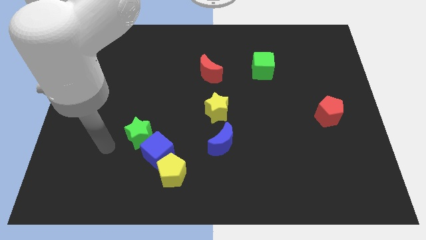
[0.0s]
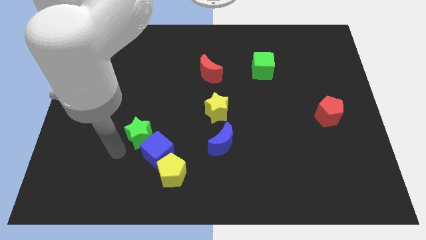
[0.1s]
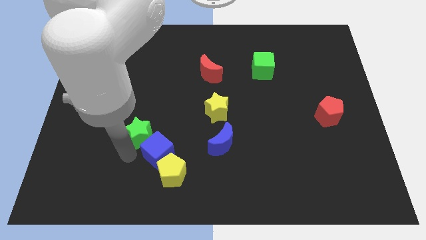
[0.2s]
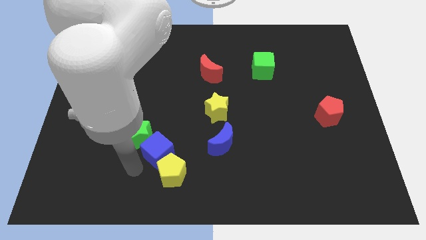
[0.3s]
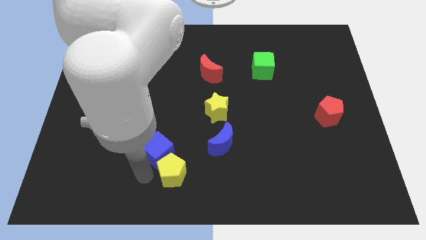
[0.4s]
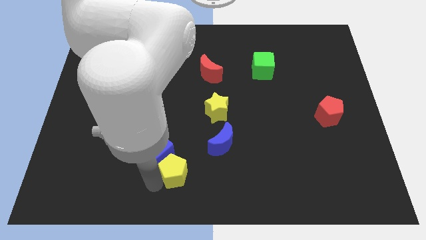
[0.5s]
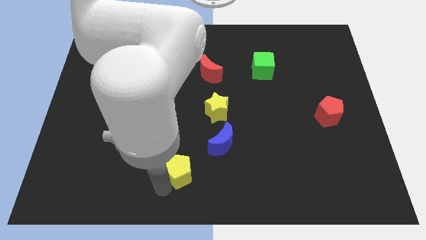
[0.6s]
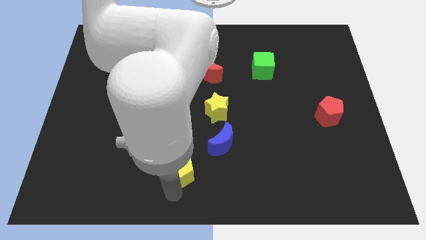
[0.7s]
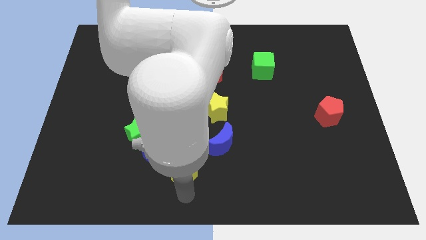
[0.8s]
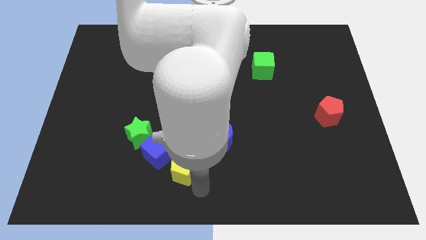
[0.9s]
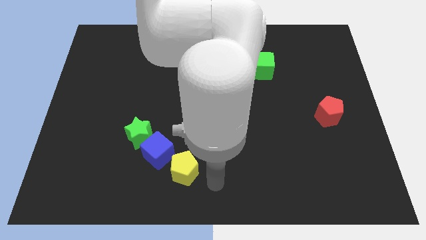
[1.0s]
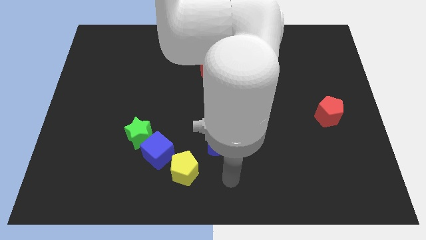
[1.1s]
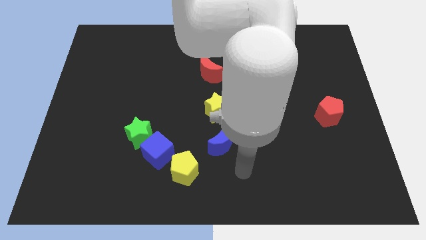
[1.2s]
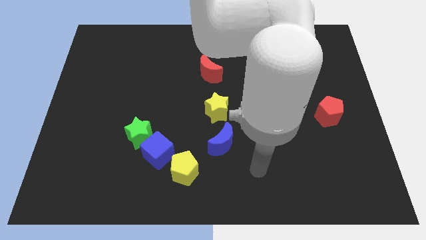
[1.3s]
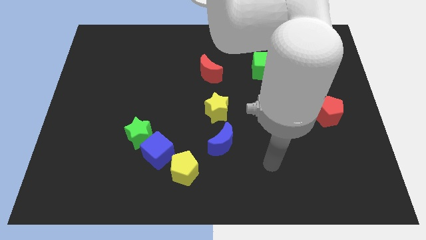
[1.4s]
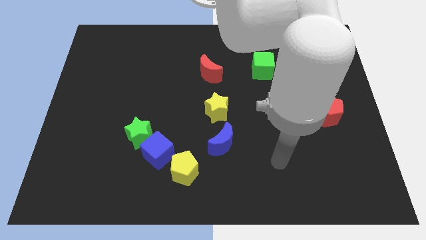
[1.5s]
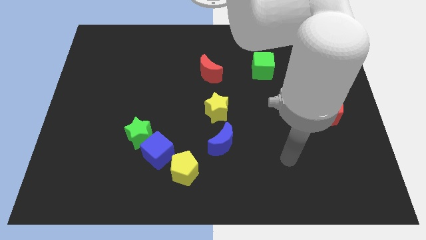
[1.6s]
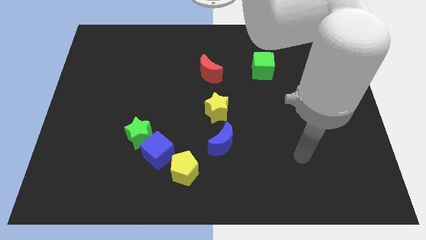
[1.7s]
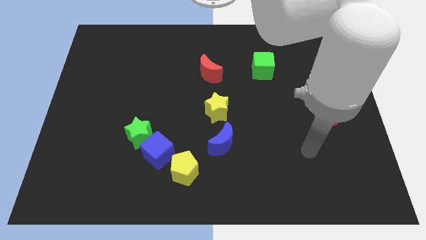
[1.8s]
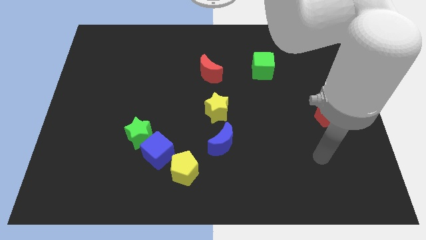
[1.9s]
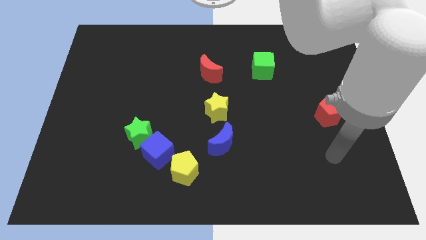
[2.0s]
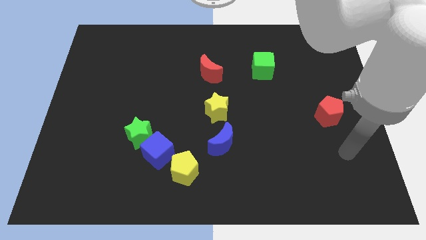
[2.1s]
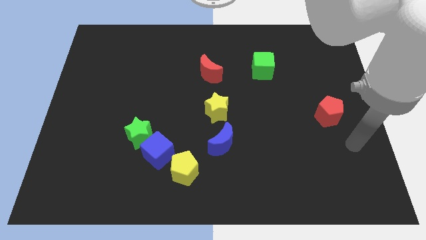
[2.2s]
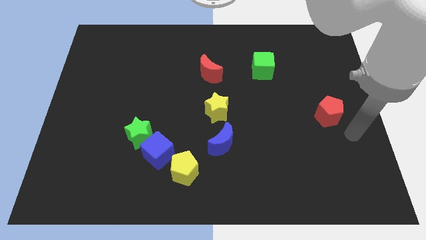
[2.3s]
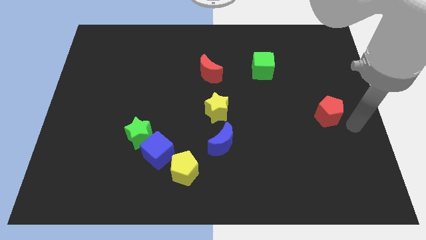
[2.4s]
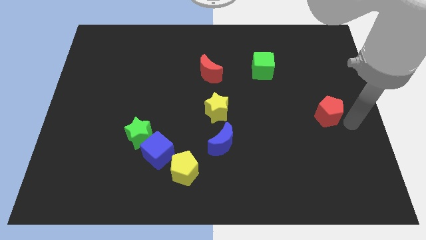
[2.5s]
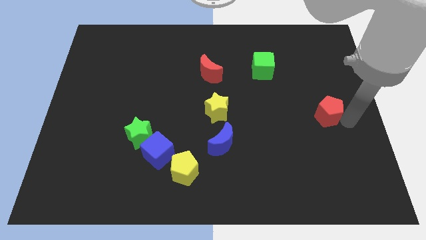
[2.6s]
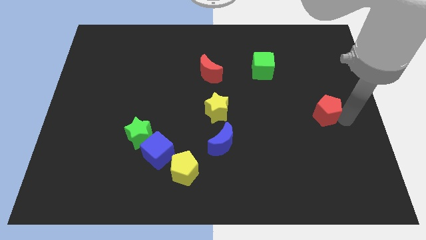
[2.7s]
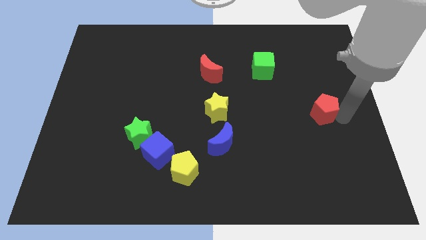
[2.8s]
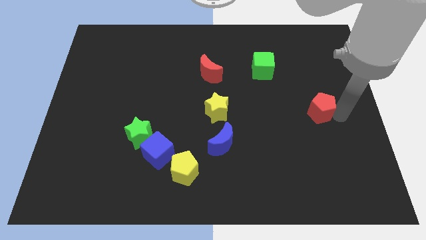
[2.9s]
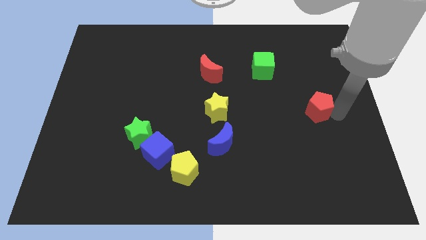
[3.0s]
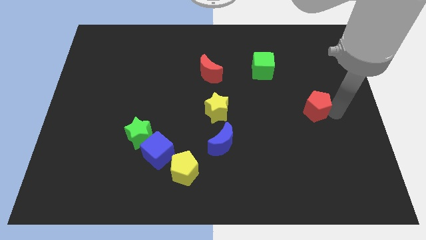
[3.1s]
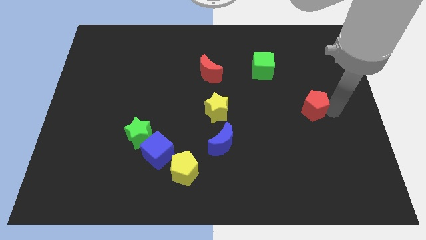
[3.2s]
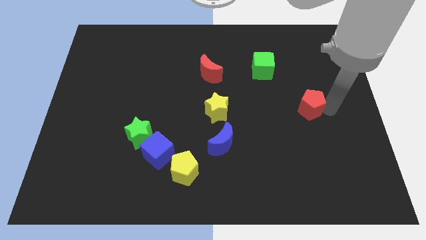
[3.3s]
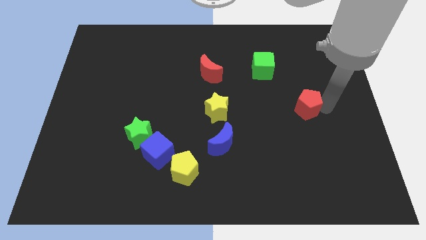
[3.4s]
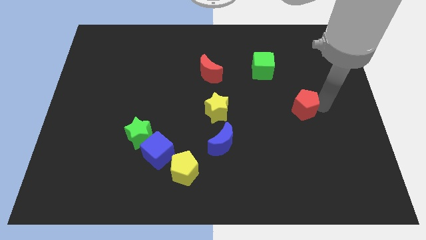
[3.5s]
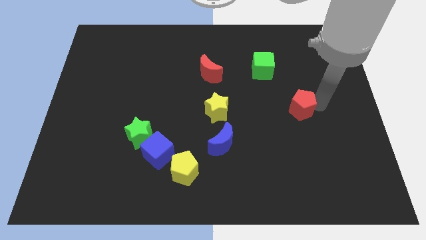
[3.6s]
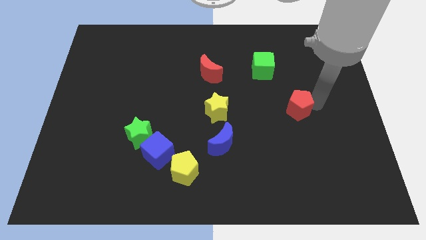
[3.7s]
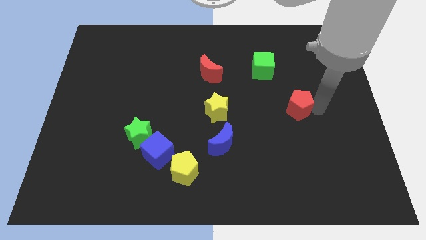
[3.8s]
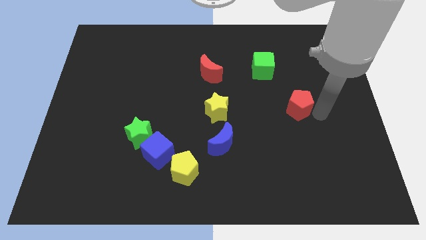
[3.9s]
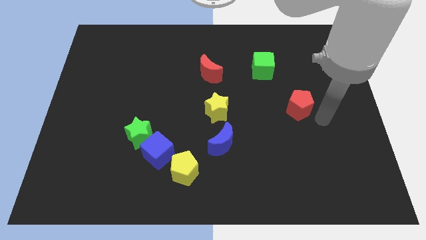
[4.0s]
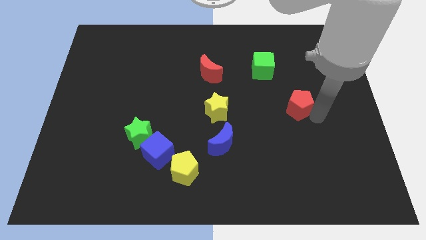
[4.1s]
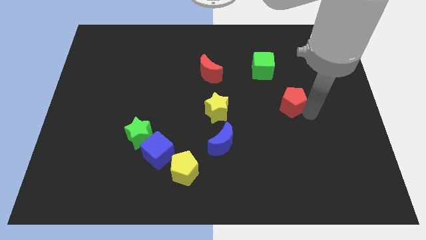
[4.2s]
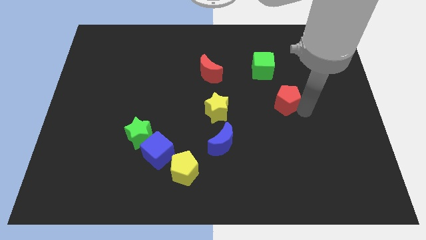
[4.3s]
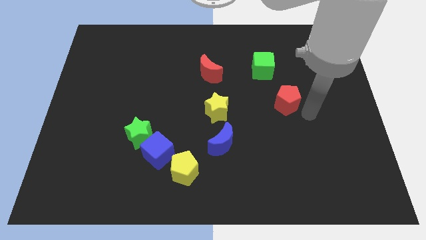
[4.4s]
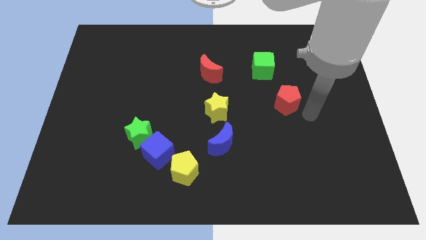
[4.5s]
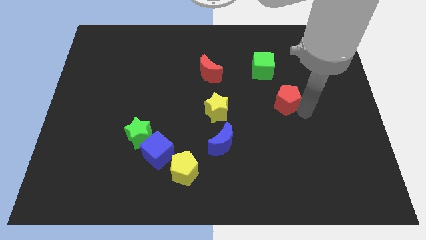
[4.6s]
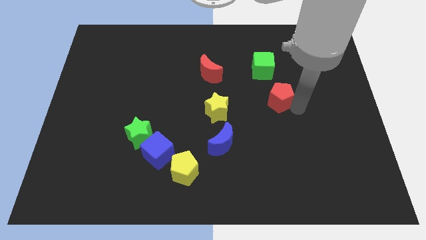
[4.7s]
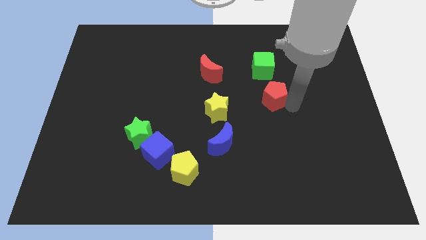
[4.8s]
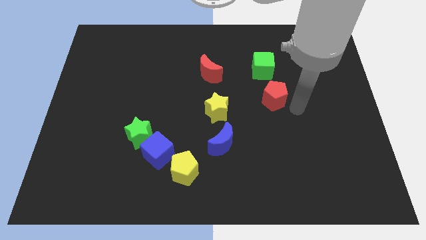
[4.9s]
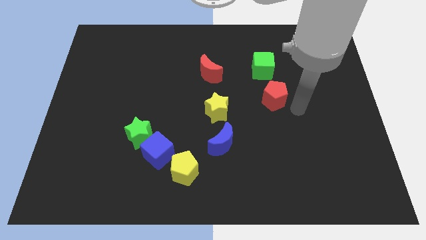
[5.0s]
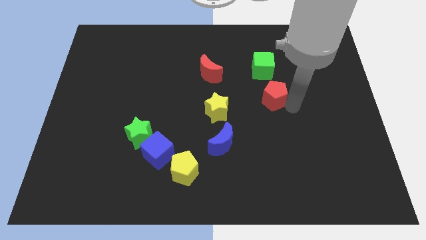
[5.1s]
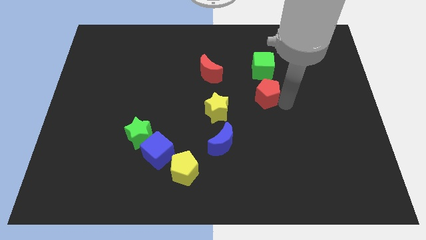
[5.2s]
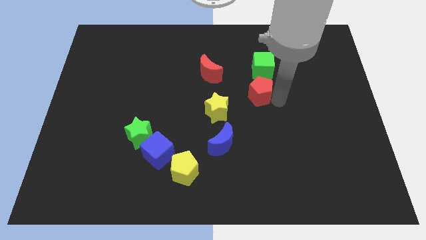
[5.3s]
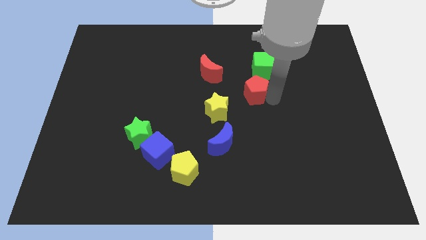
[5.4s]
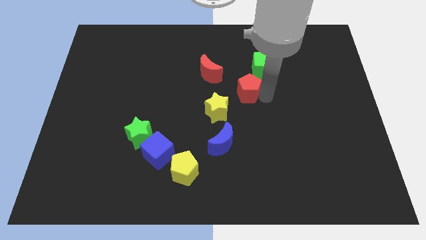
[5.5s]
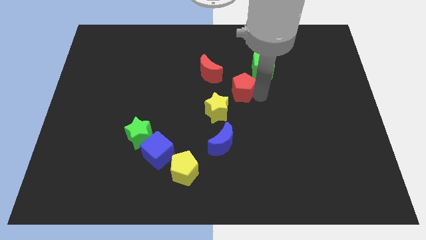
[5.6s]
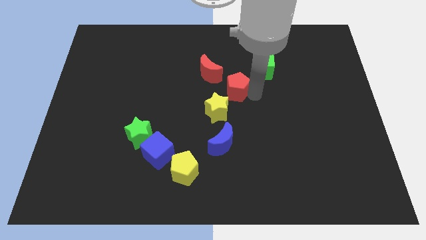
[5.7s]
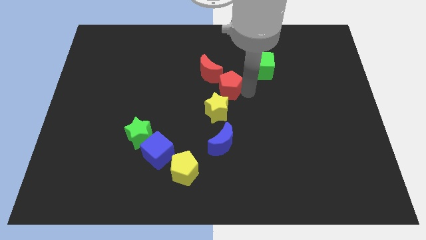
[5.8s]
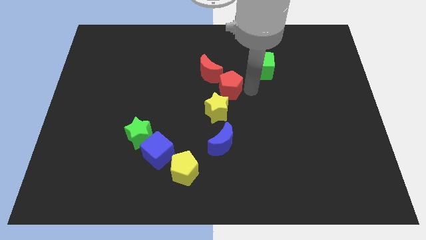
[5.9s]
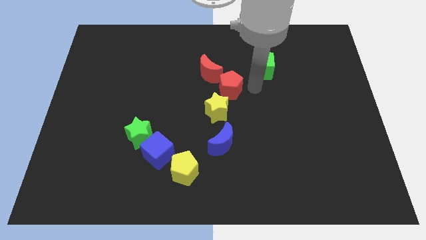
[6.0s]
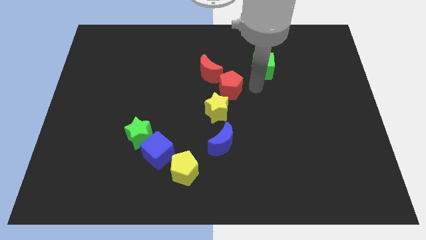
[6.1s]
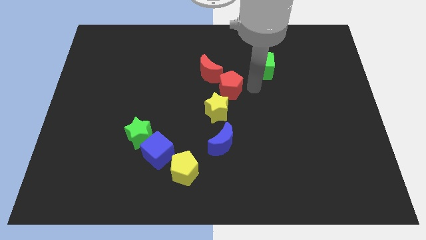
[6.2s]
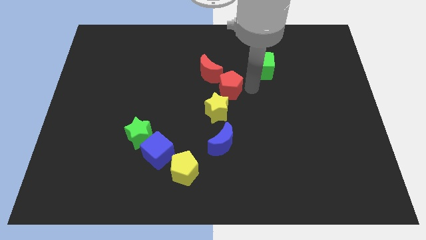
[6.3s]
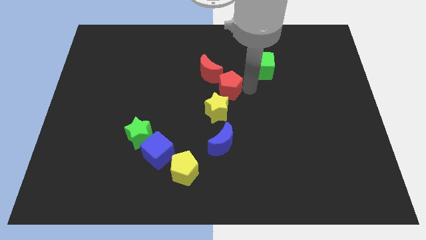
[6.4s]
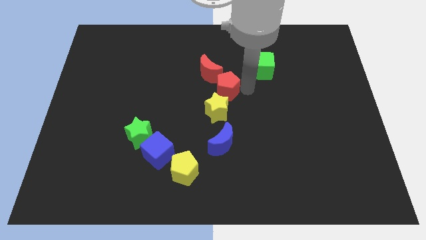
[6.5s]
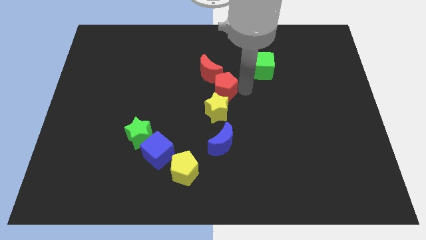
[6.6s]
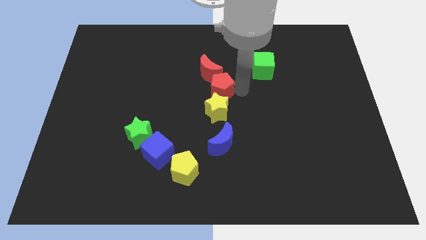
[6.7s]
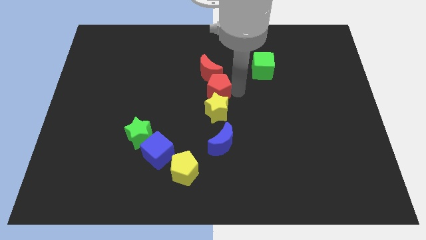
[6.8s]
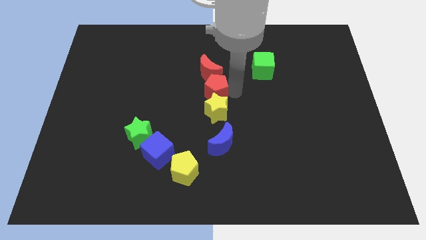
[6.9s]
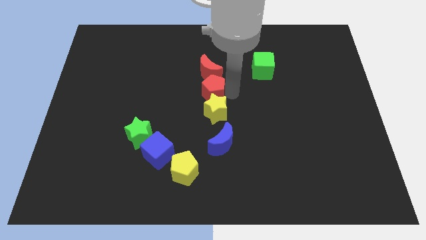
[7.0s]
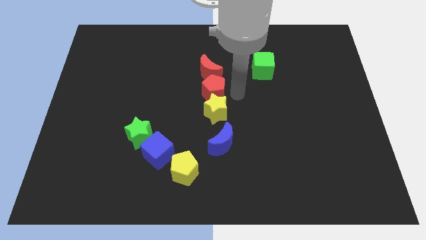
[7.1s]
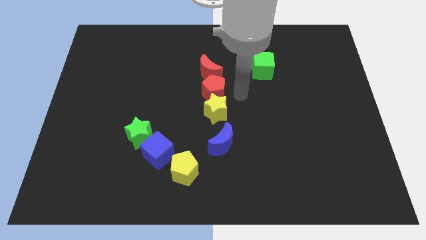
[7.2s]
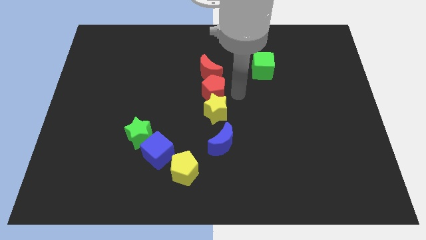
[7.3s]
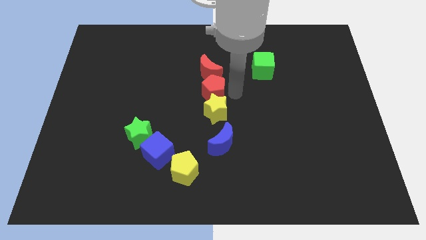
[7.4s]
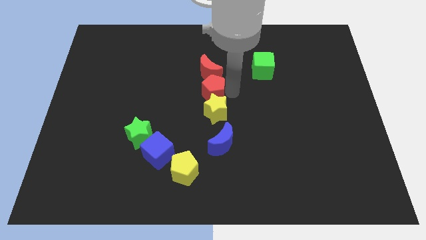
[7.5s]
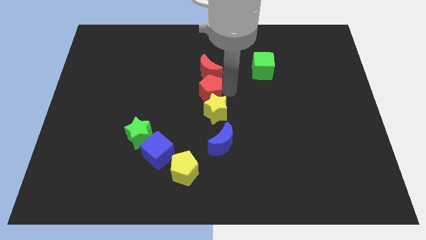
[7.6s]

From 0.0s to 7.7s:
push the red pentagon to the bottom left of the red moon
